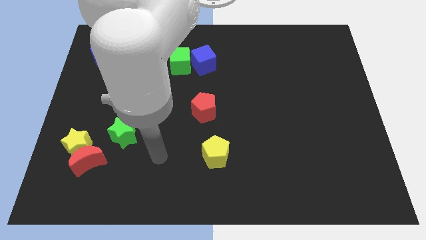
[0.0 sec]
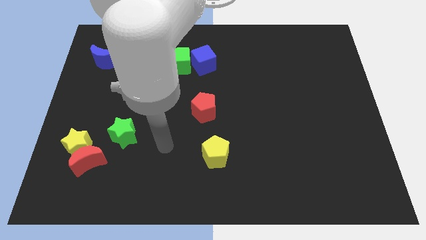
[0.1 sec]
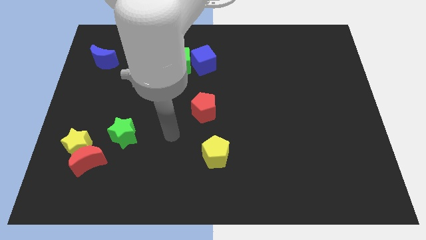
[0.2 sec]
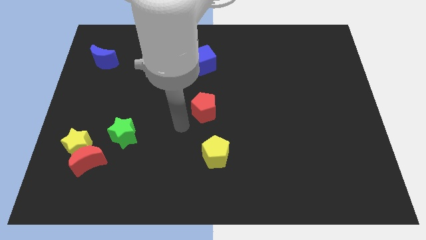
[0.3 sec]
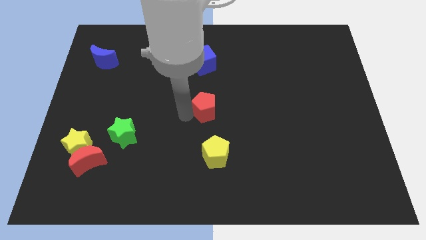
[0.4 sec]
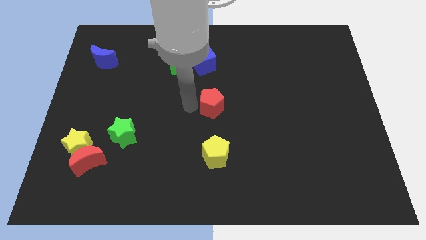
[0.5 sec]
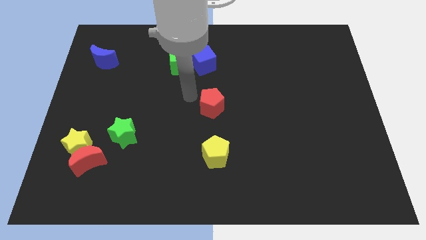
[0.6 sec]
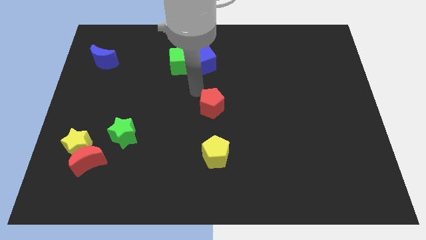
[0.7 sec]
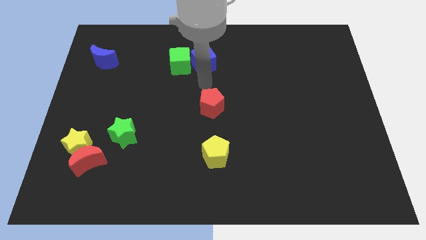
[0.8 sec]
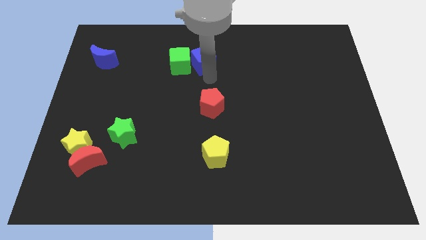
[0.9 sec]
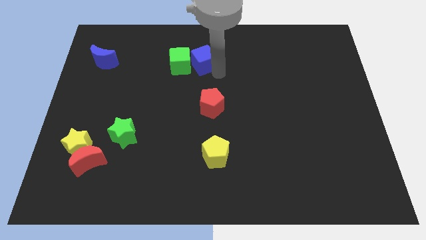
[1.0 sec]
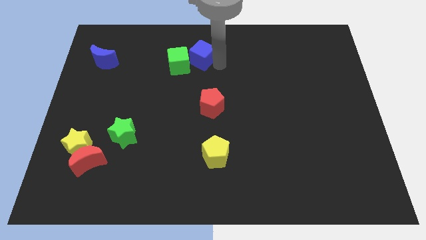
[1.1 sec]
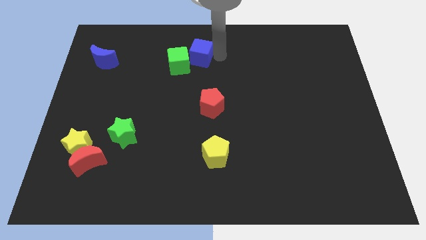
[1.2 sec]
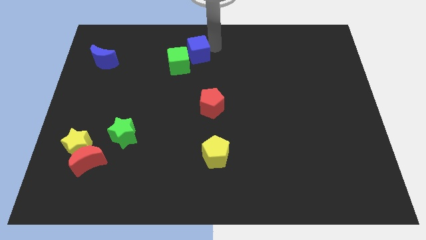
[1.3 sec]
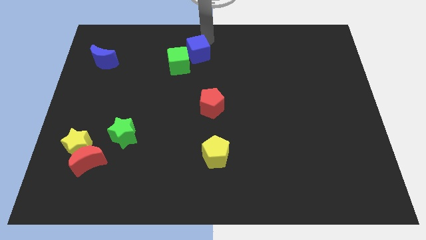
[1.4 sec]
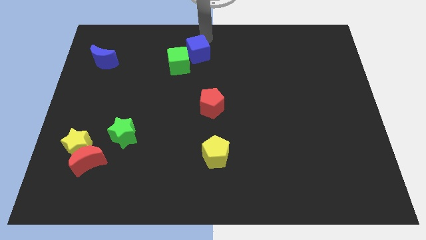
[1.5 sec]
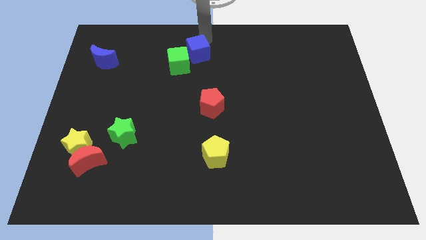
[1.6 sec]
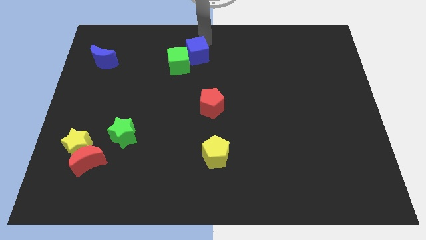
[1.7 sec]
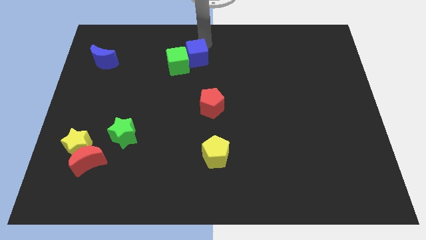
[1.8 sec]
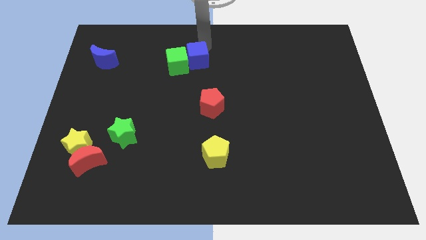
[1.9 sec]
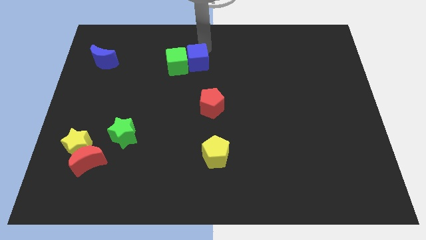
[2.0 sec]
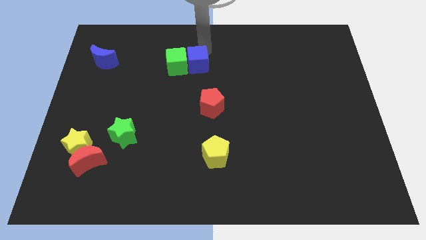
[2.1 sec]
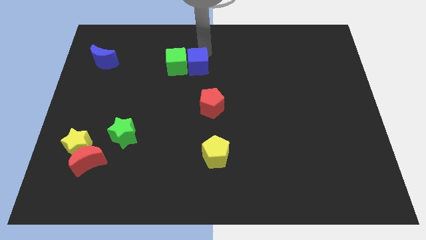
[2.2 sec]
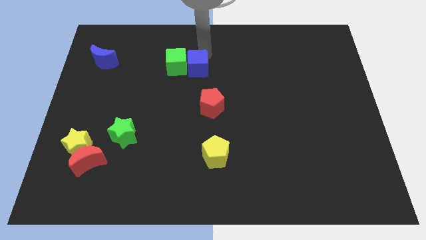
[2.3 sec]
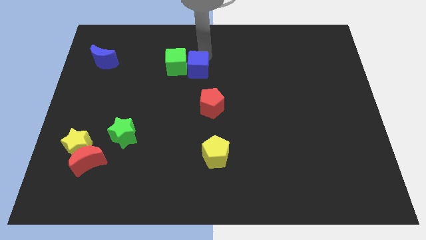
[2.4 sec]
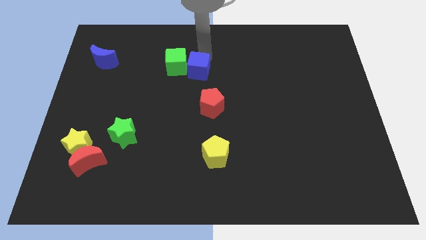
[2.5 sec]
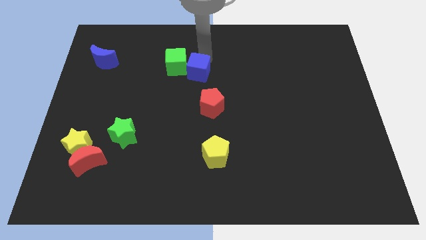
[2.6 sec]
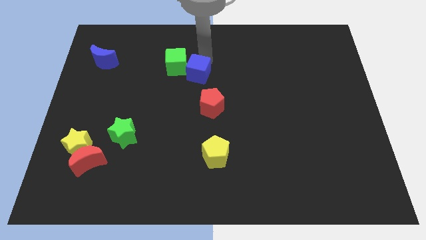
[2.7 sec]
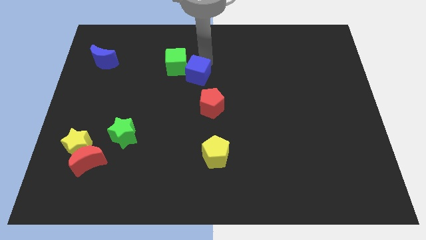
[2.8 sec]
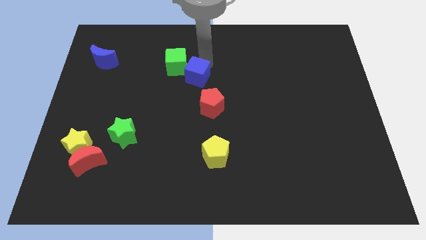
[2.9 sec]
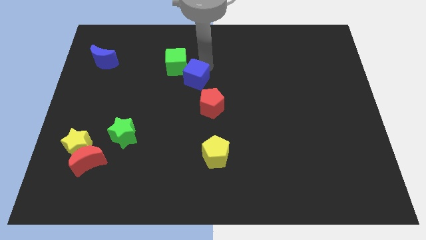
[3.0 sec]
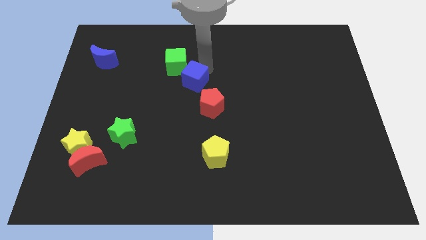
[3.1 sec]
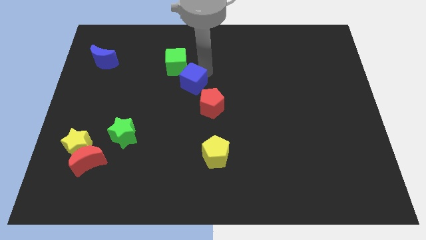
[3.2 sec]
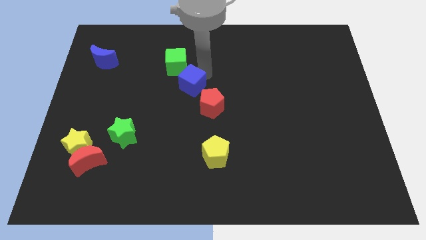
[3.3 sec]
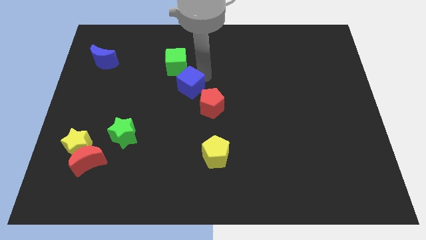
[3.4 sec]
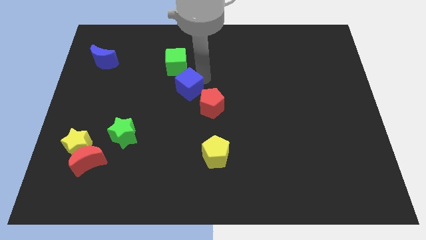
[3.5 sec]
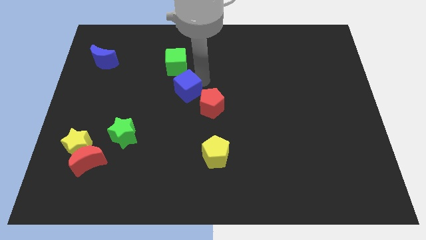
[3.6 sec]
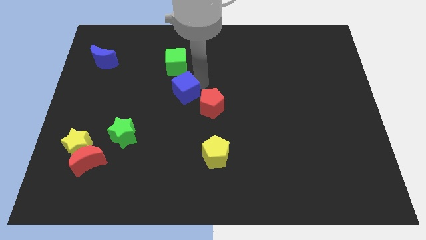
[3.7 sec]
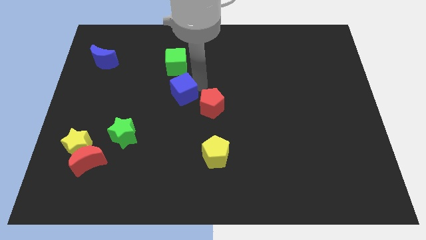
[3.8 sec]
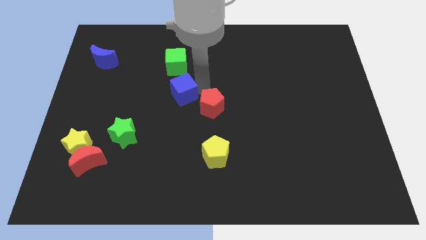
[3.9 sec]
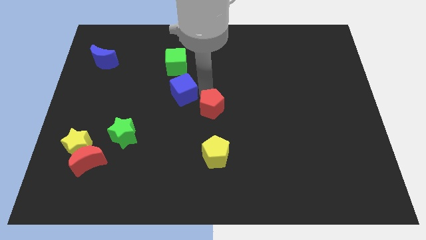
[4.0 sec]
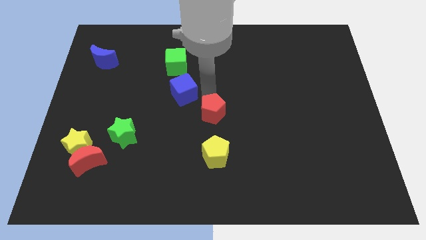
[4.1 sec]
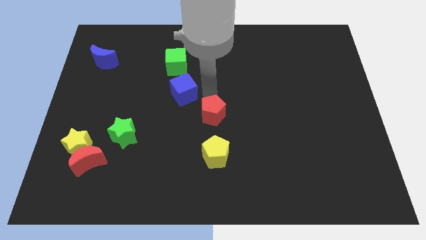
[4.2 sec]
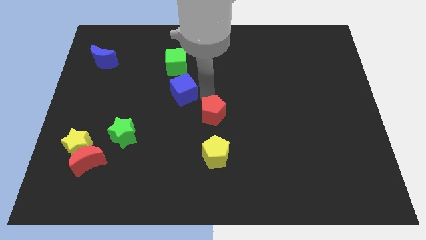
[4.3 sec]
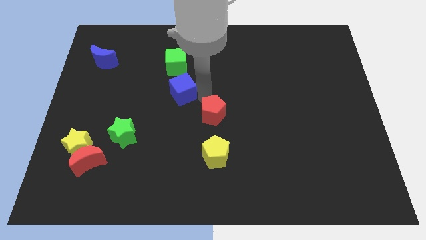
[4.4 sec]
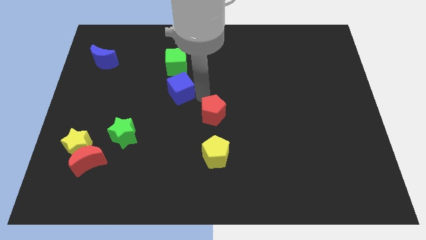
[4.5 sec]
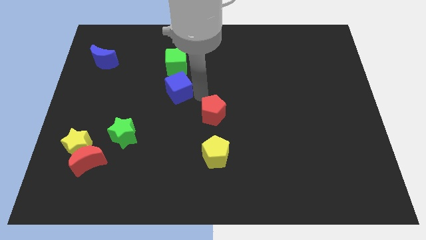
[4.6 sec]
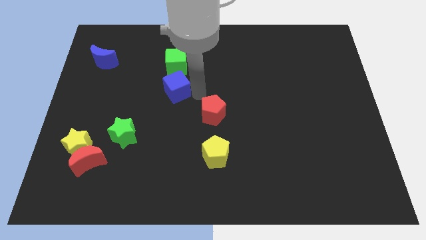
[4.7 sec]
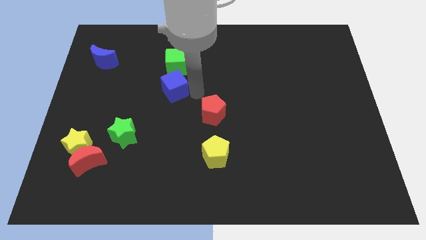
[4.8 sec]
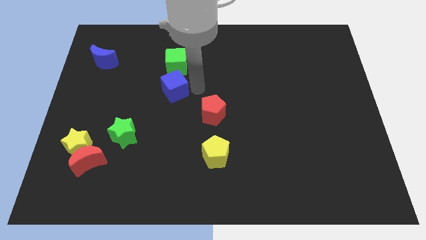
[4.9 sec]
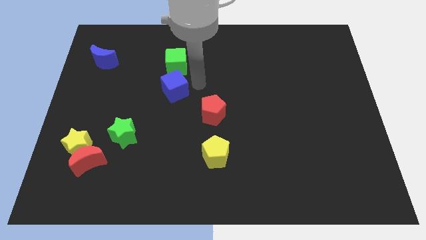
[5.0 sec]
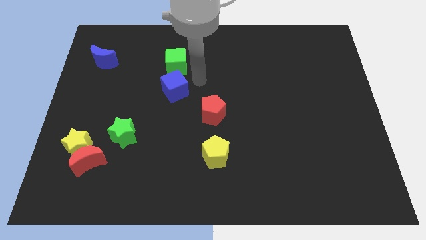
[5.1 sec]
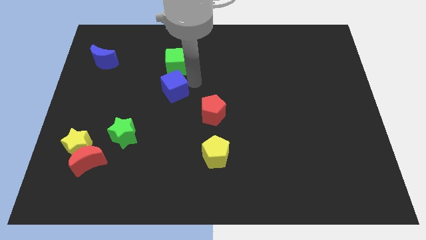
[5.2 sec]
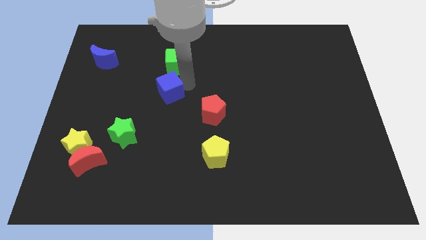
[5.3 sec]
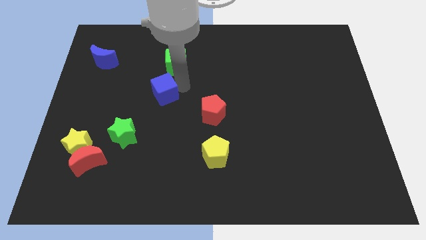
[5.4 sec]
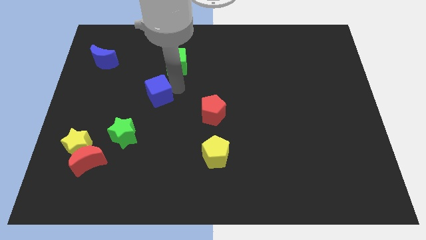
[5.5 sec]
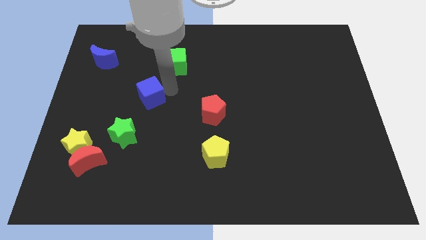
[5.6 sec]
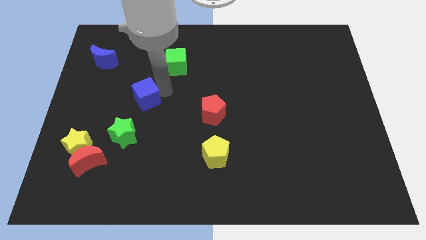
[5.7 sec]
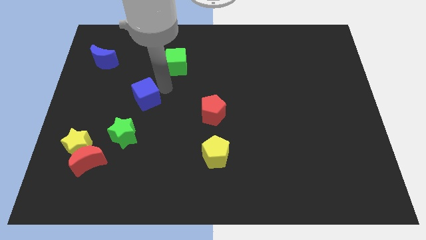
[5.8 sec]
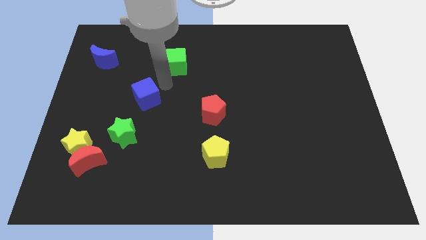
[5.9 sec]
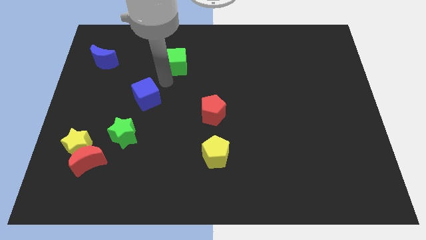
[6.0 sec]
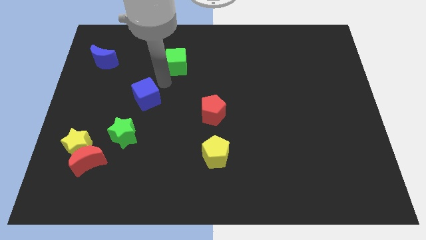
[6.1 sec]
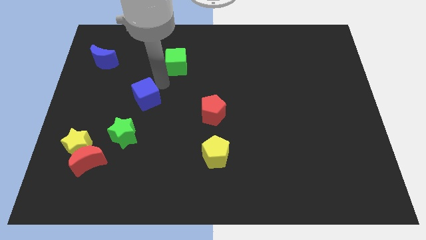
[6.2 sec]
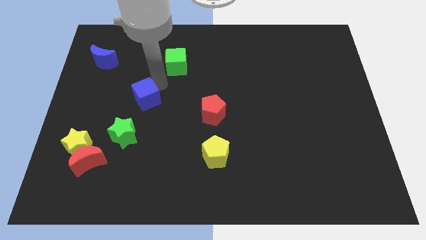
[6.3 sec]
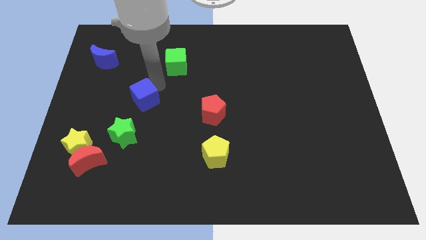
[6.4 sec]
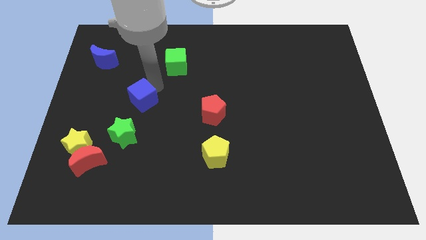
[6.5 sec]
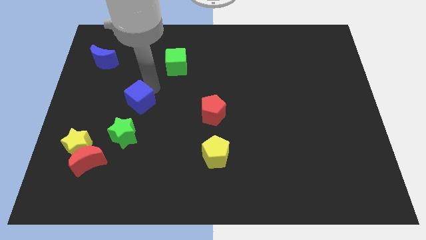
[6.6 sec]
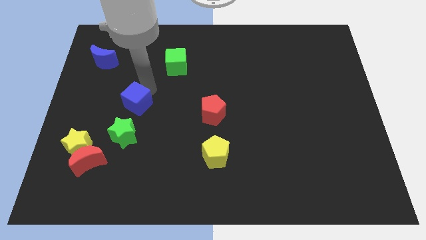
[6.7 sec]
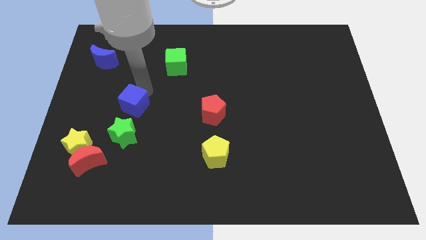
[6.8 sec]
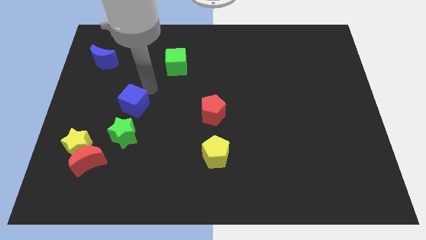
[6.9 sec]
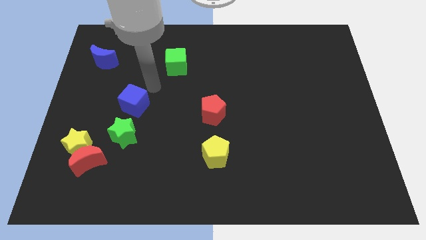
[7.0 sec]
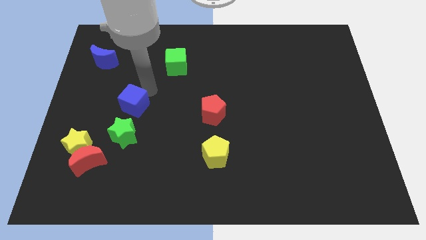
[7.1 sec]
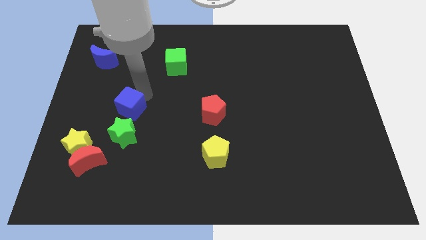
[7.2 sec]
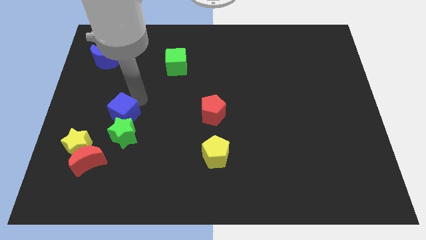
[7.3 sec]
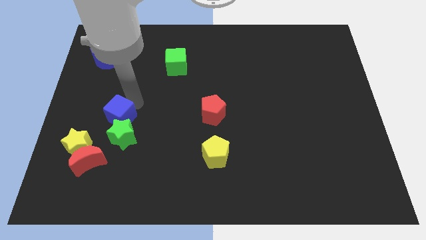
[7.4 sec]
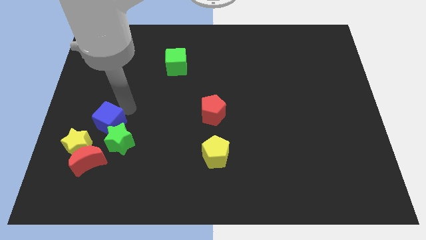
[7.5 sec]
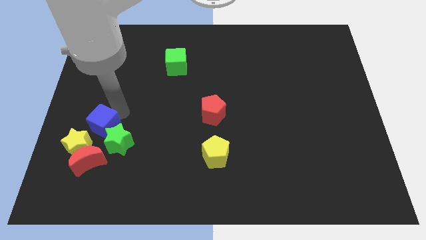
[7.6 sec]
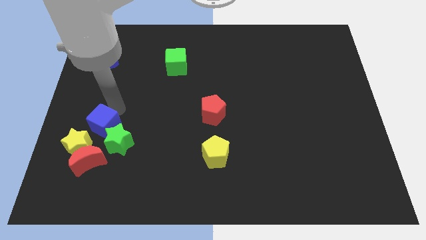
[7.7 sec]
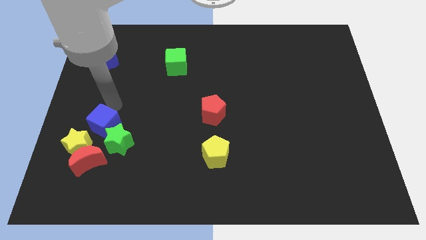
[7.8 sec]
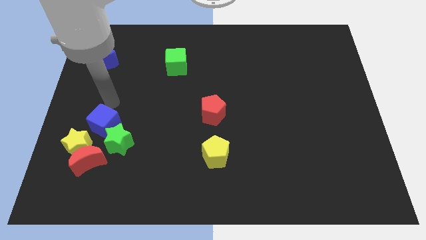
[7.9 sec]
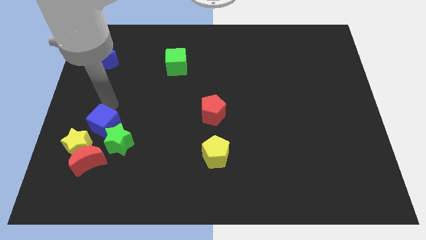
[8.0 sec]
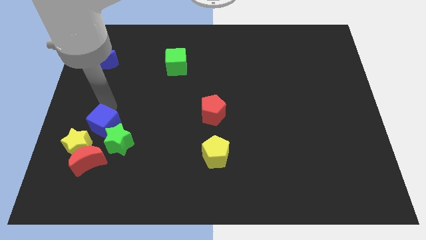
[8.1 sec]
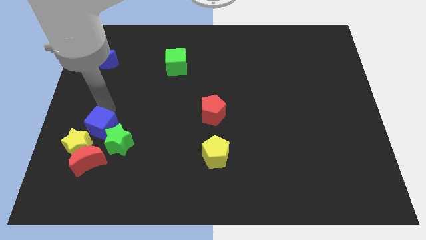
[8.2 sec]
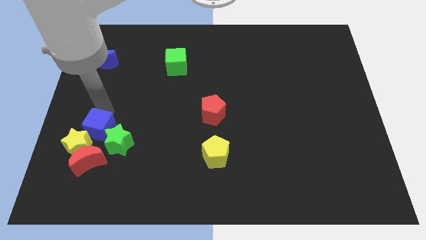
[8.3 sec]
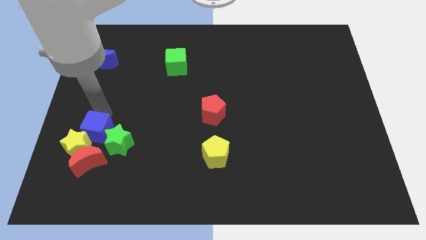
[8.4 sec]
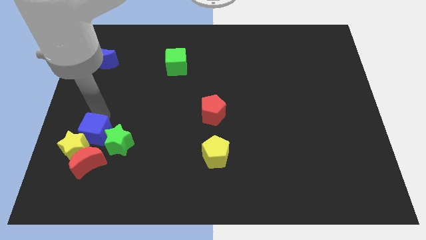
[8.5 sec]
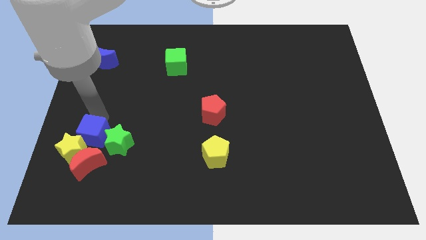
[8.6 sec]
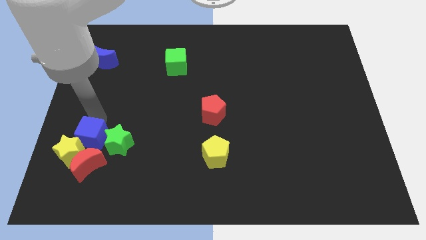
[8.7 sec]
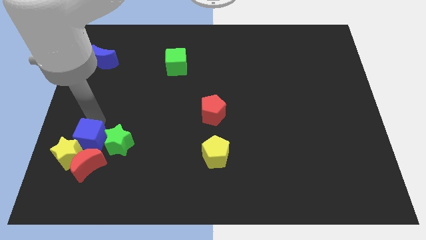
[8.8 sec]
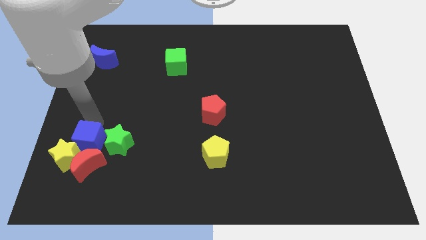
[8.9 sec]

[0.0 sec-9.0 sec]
push the blue cube towards the red moon
